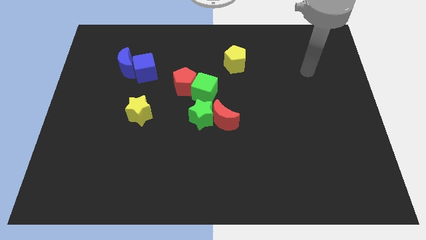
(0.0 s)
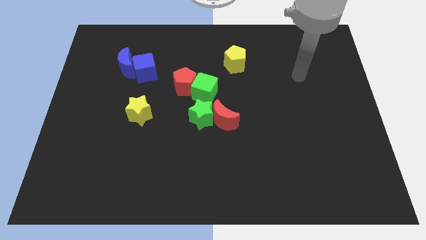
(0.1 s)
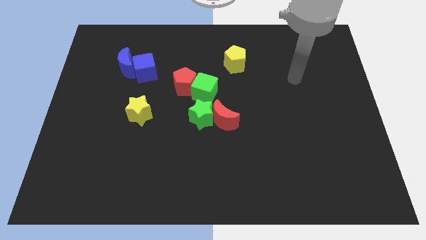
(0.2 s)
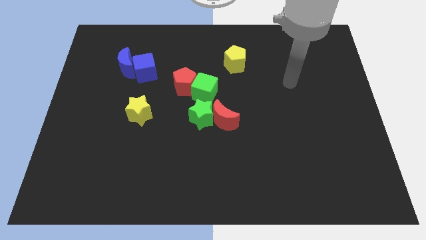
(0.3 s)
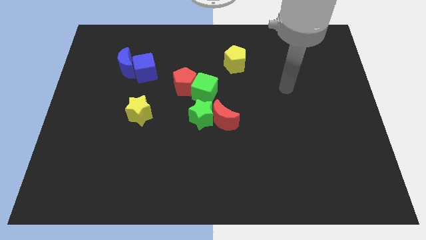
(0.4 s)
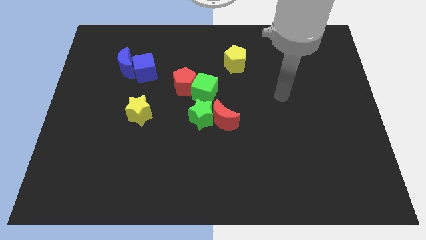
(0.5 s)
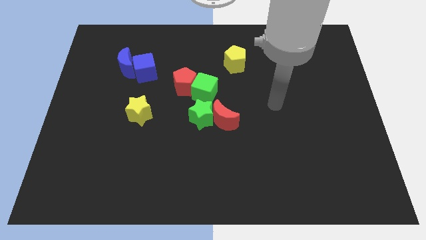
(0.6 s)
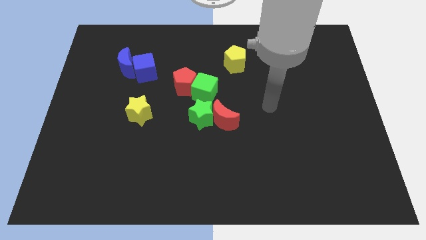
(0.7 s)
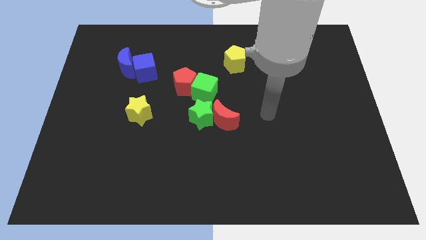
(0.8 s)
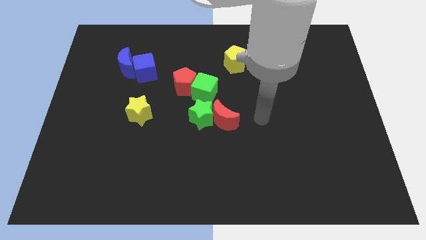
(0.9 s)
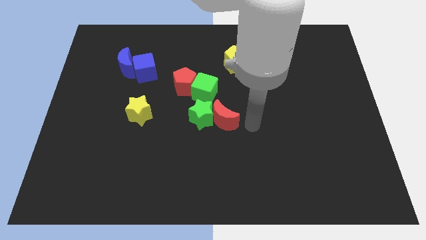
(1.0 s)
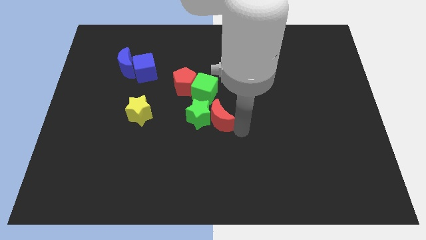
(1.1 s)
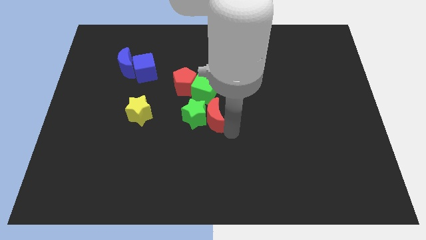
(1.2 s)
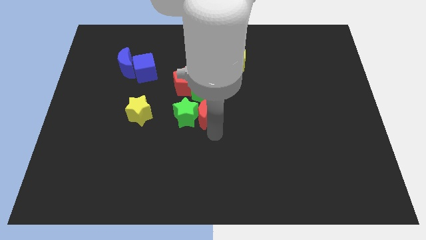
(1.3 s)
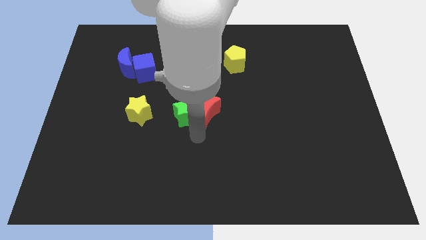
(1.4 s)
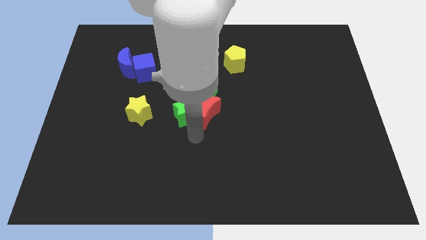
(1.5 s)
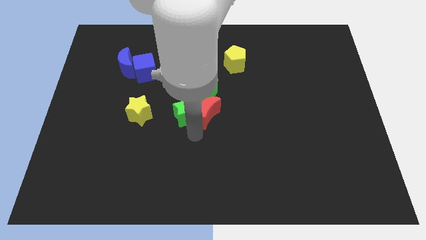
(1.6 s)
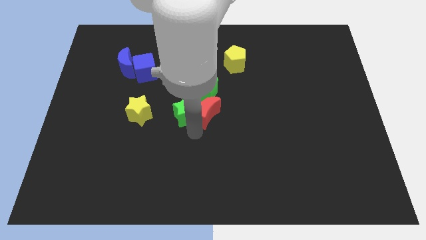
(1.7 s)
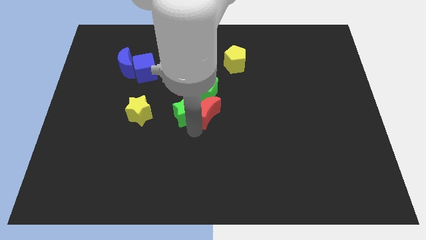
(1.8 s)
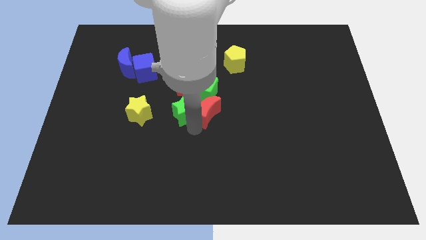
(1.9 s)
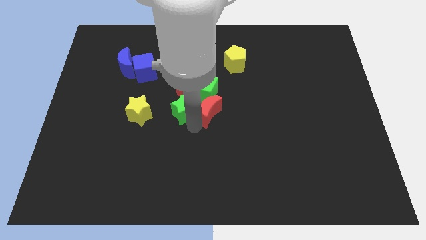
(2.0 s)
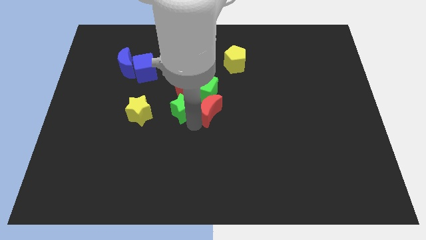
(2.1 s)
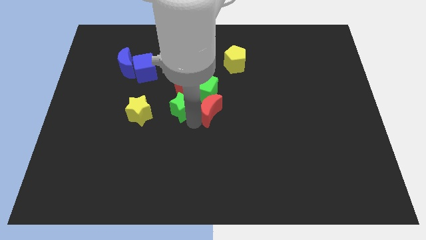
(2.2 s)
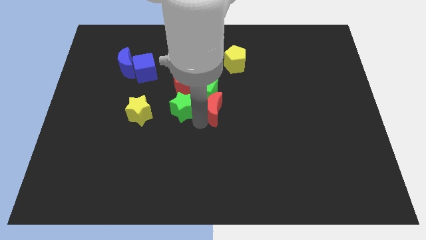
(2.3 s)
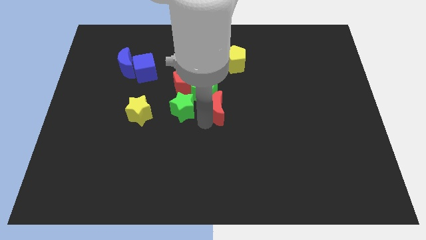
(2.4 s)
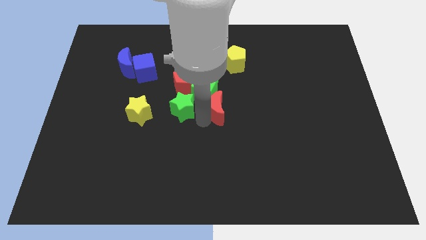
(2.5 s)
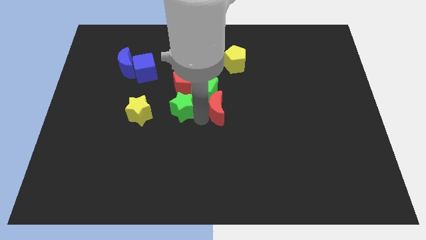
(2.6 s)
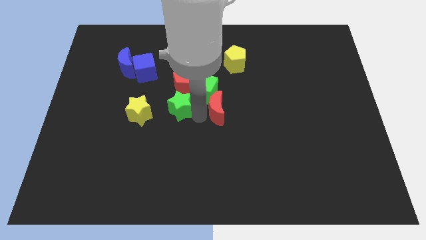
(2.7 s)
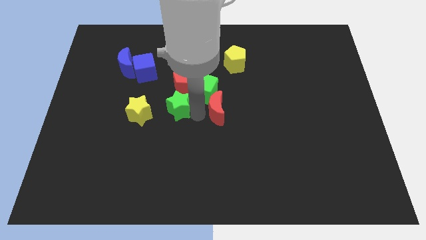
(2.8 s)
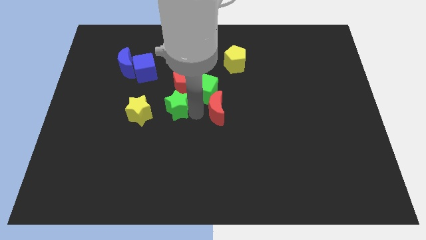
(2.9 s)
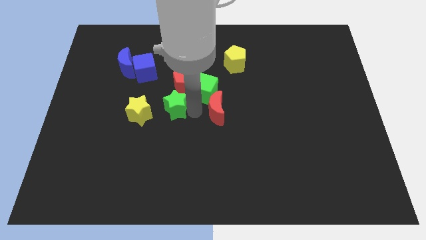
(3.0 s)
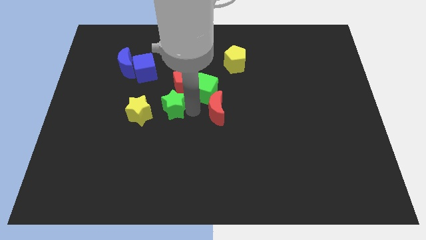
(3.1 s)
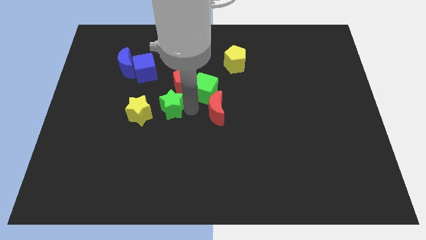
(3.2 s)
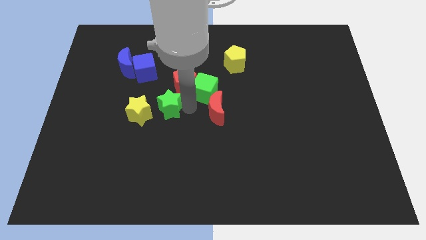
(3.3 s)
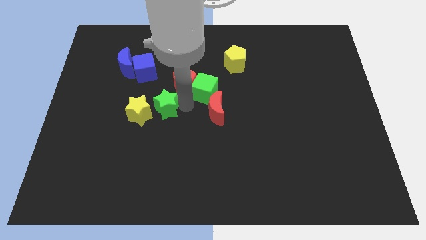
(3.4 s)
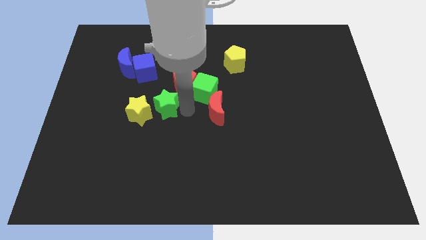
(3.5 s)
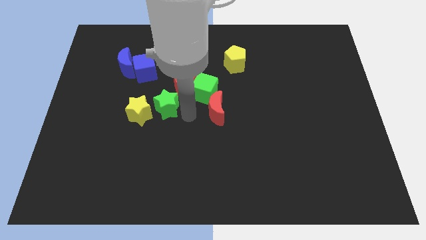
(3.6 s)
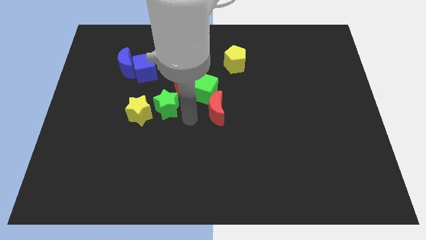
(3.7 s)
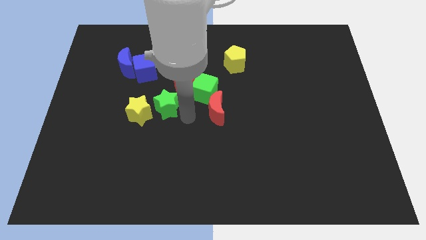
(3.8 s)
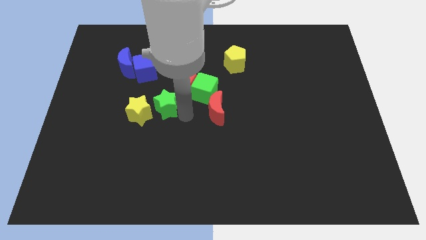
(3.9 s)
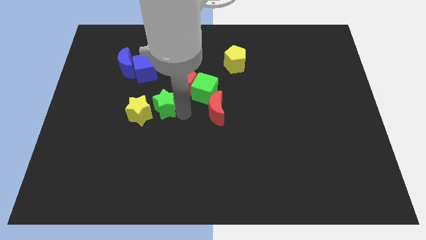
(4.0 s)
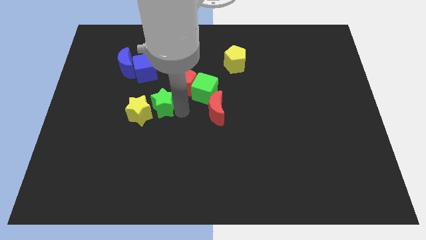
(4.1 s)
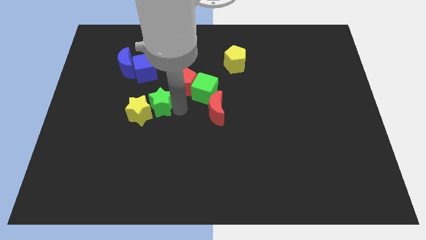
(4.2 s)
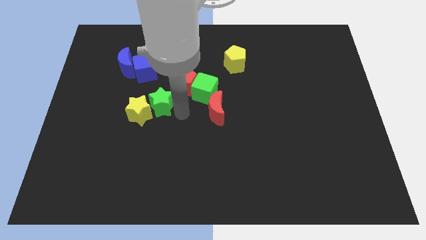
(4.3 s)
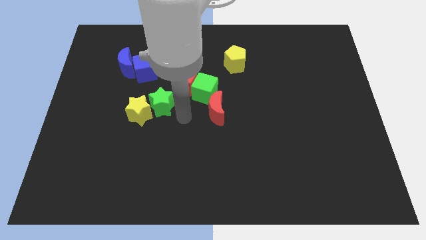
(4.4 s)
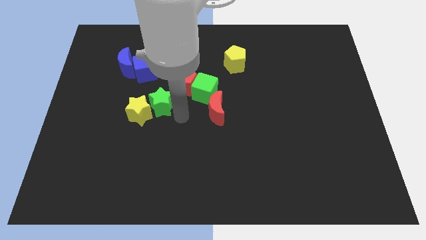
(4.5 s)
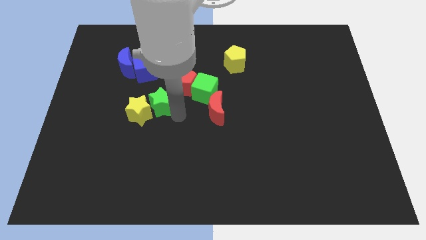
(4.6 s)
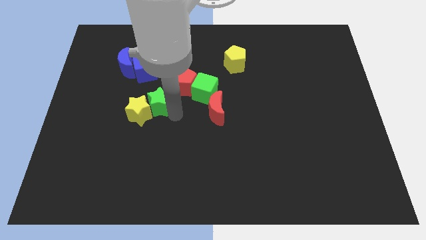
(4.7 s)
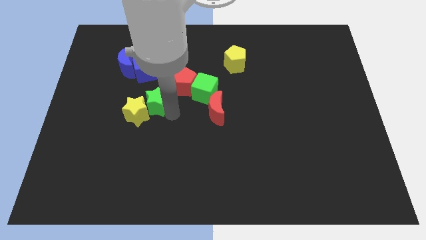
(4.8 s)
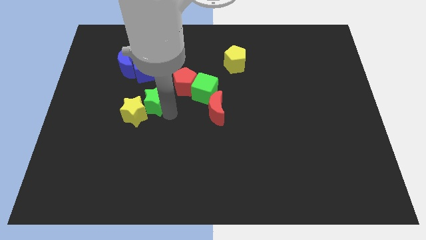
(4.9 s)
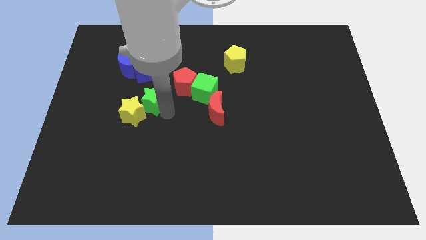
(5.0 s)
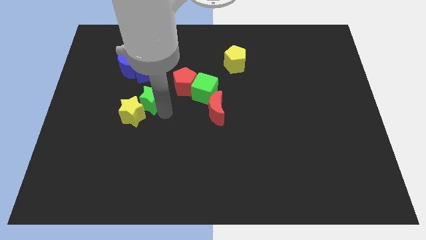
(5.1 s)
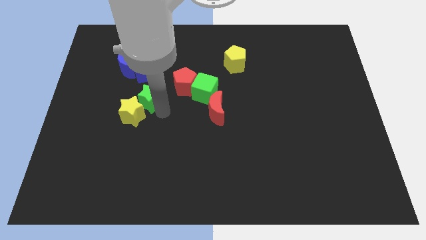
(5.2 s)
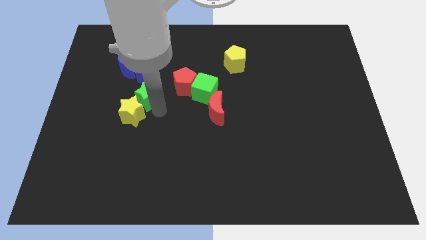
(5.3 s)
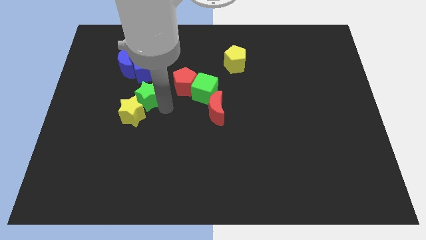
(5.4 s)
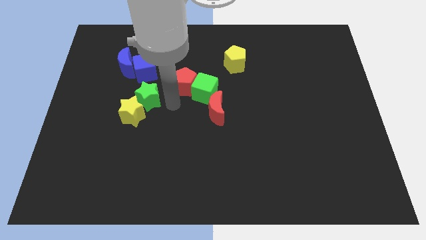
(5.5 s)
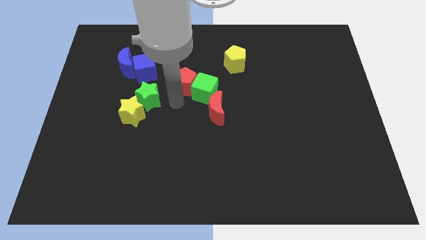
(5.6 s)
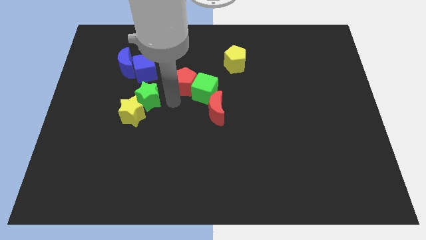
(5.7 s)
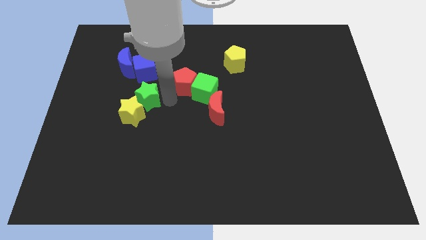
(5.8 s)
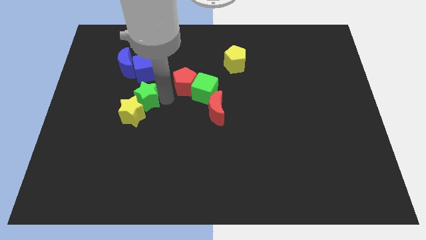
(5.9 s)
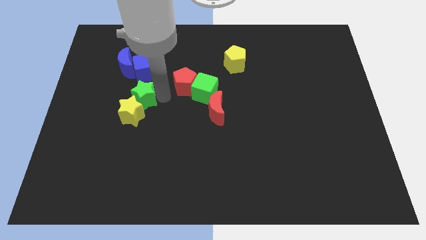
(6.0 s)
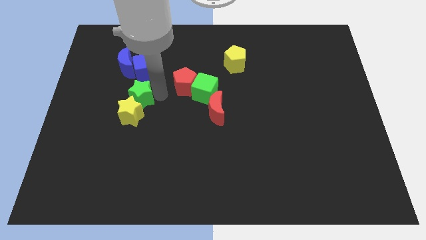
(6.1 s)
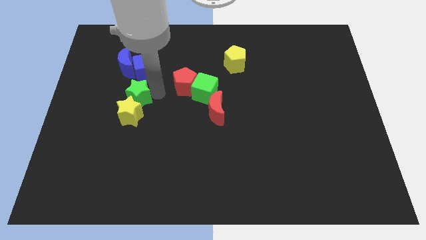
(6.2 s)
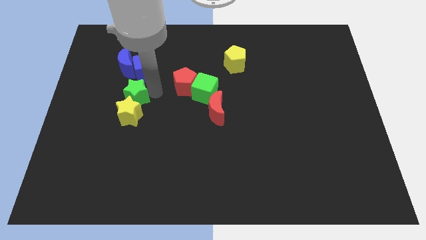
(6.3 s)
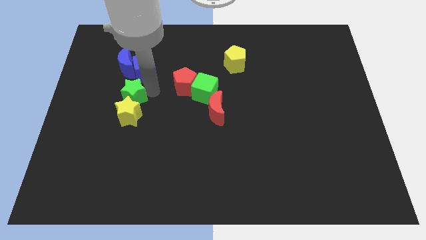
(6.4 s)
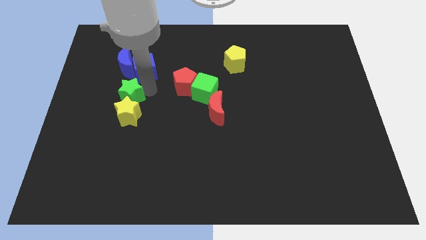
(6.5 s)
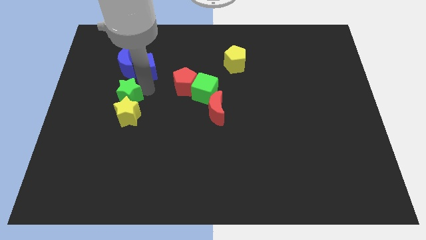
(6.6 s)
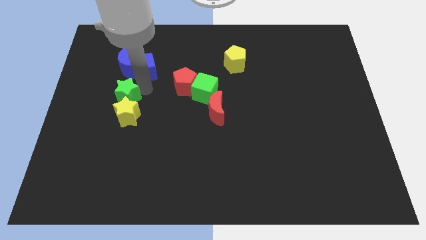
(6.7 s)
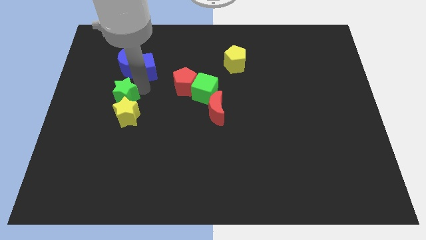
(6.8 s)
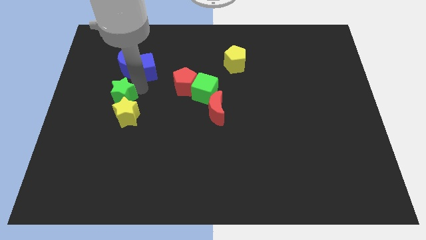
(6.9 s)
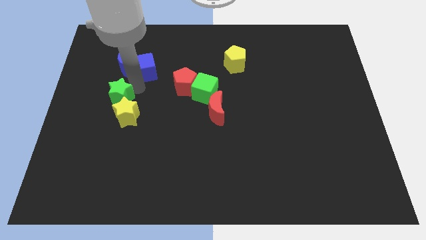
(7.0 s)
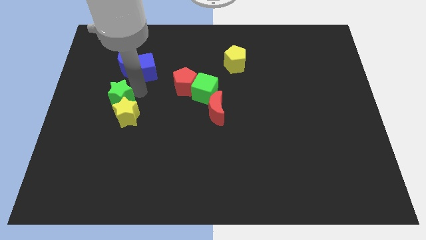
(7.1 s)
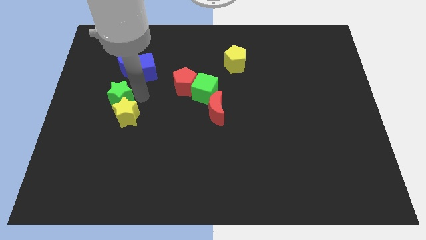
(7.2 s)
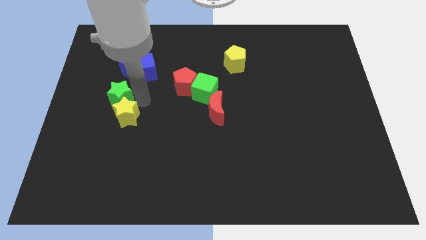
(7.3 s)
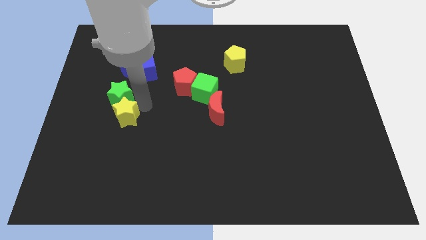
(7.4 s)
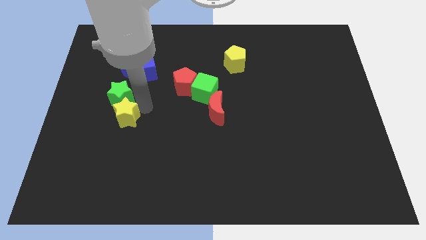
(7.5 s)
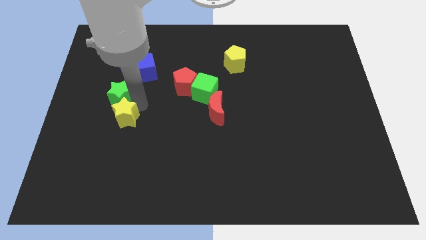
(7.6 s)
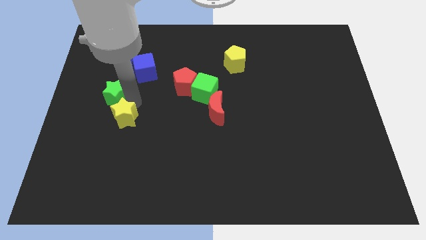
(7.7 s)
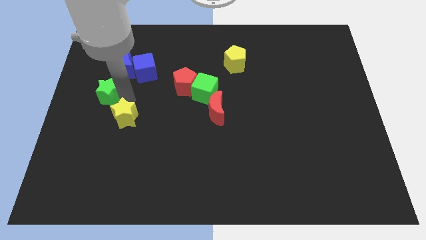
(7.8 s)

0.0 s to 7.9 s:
push the green star to the left side of the board
